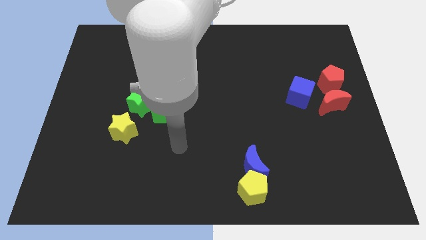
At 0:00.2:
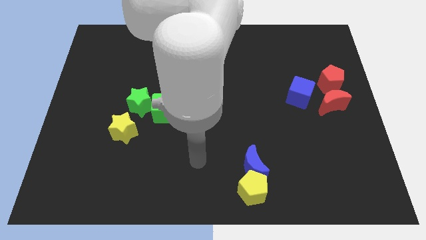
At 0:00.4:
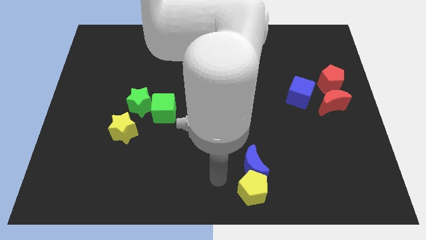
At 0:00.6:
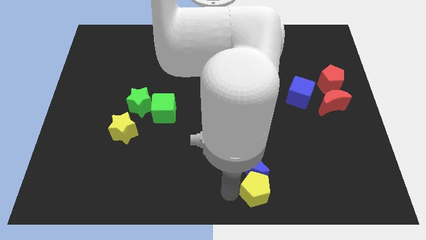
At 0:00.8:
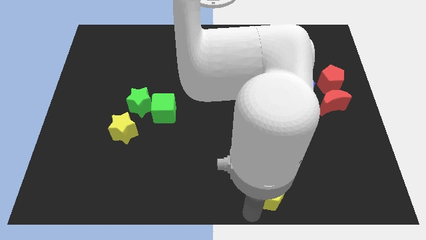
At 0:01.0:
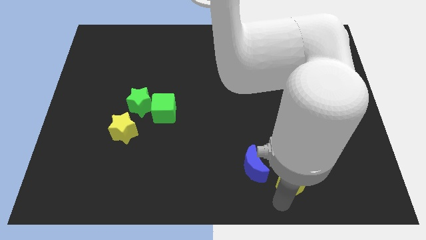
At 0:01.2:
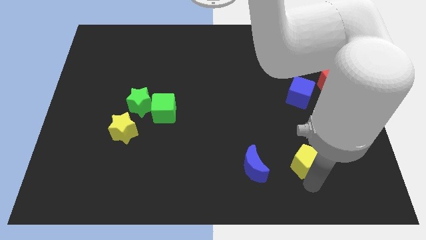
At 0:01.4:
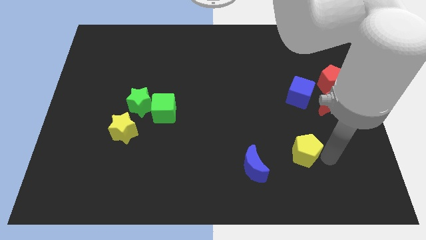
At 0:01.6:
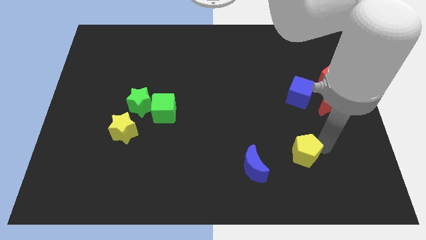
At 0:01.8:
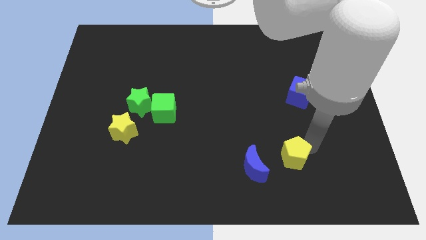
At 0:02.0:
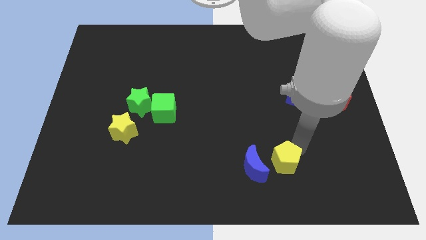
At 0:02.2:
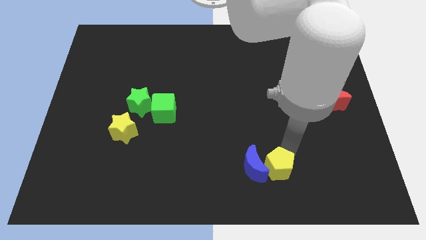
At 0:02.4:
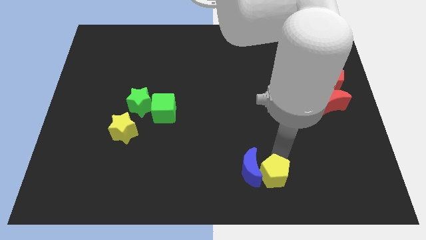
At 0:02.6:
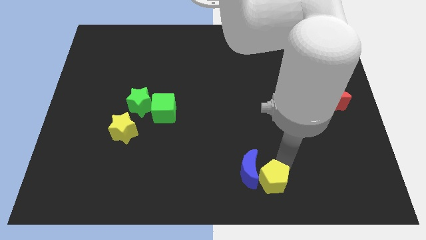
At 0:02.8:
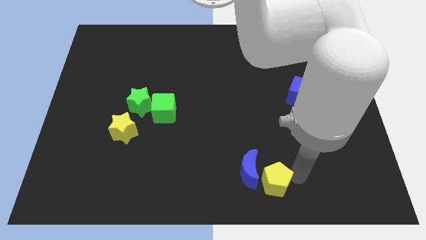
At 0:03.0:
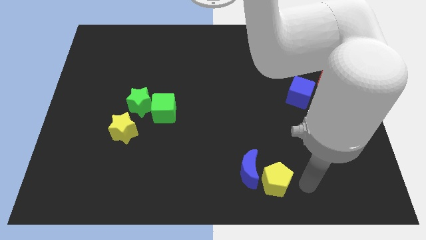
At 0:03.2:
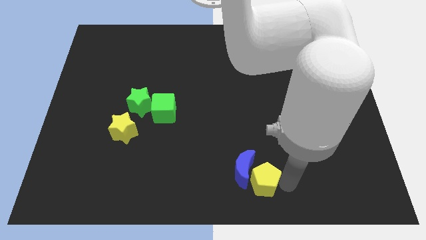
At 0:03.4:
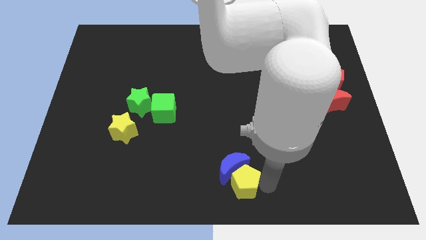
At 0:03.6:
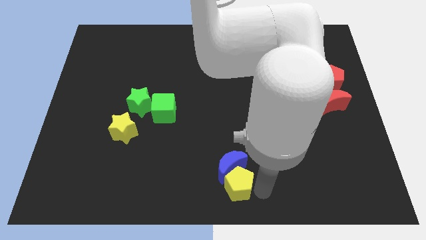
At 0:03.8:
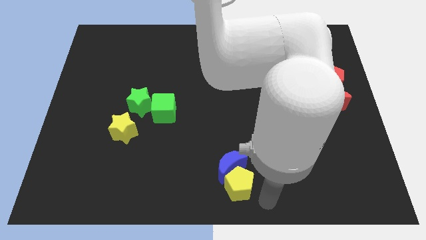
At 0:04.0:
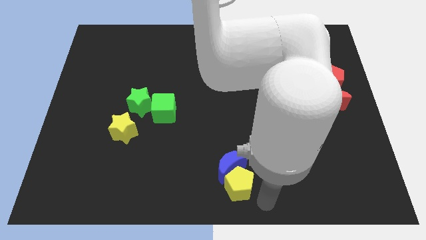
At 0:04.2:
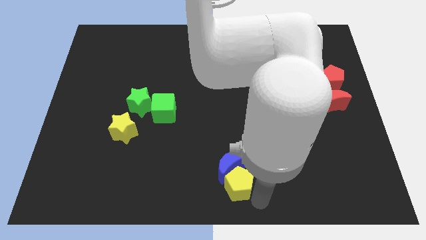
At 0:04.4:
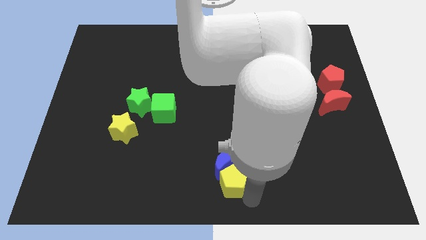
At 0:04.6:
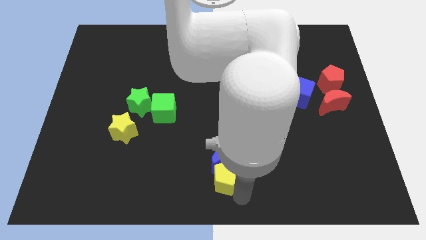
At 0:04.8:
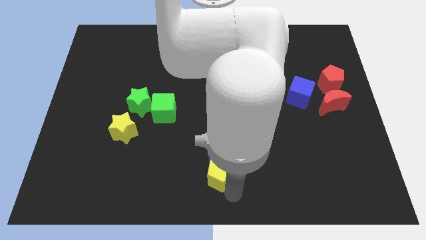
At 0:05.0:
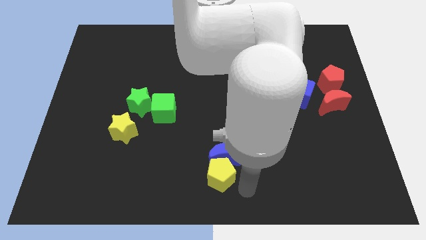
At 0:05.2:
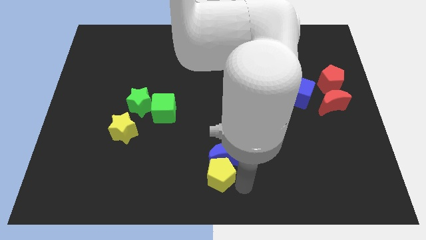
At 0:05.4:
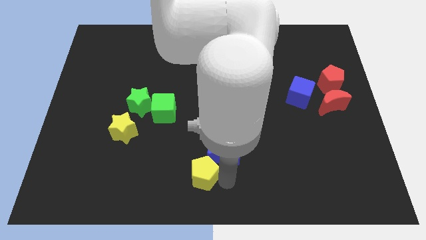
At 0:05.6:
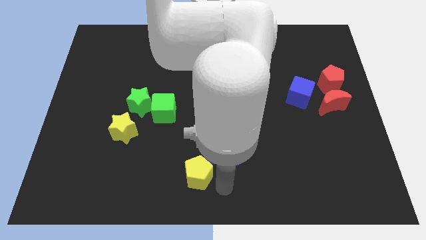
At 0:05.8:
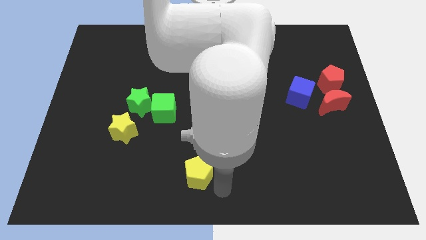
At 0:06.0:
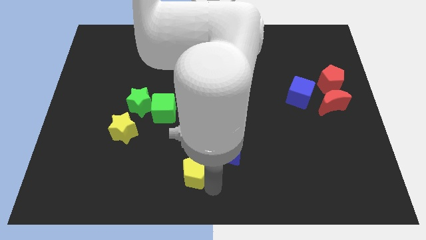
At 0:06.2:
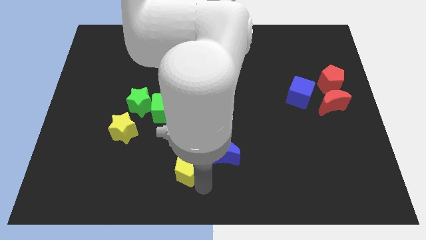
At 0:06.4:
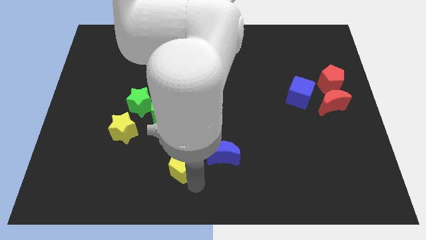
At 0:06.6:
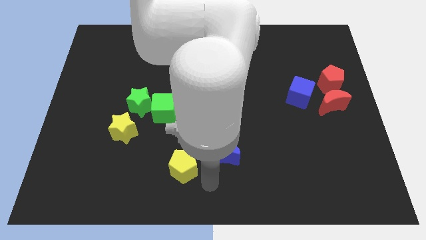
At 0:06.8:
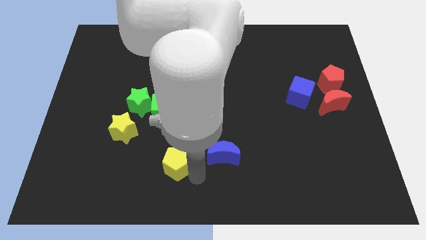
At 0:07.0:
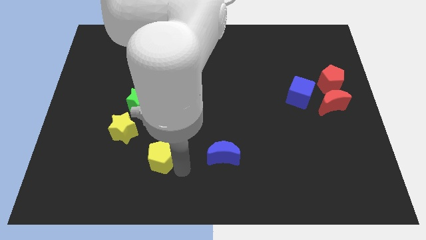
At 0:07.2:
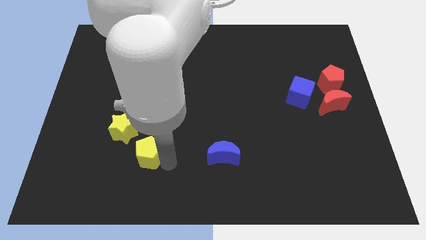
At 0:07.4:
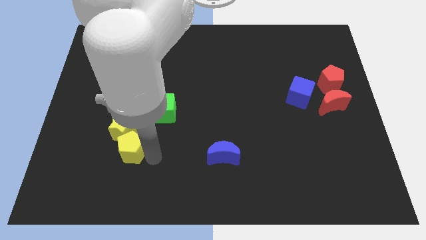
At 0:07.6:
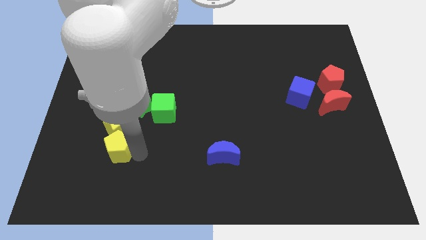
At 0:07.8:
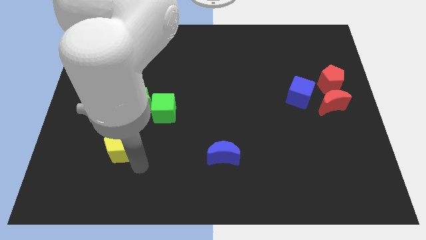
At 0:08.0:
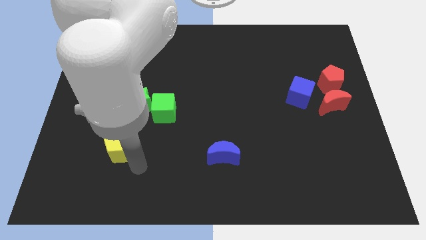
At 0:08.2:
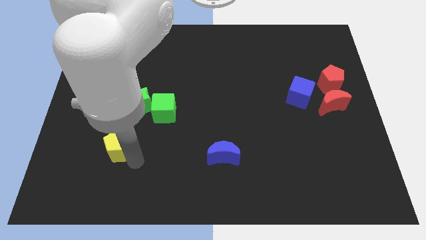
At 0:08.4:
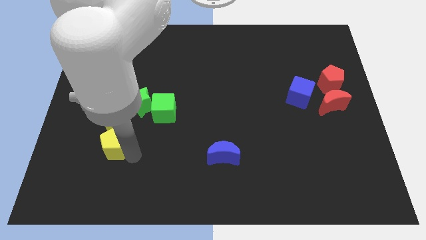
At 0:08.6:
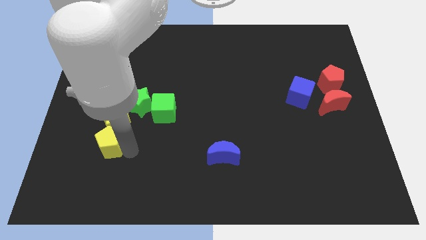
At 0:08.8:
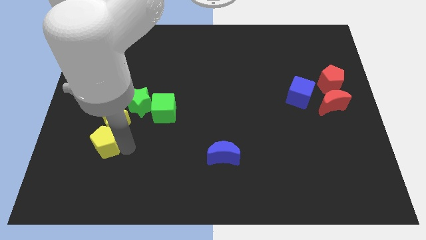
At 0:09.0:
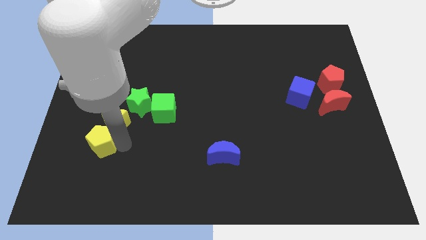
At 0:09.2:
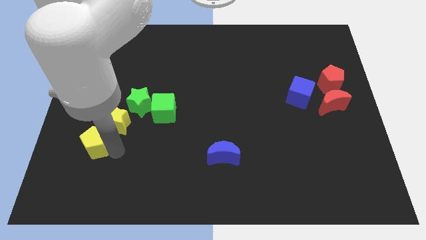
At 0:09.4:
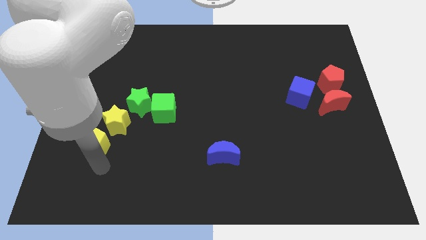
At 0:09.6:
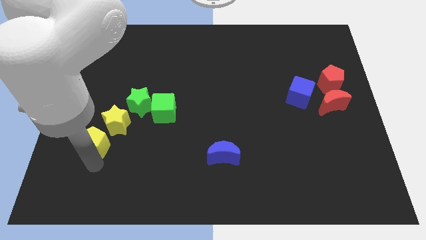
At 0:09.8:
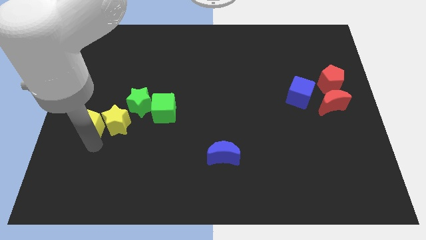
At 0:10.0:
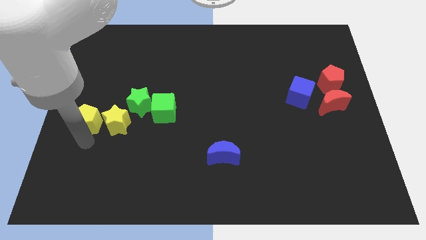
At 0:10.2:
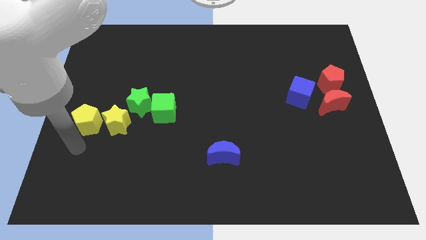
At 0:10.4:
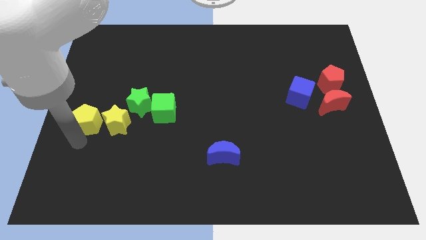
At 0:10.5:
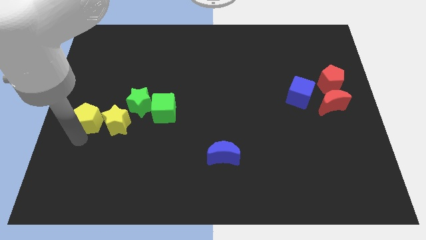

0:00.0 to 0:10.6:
push the yellow pentagon left of the green star
